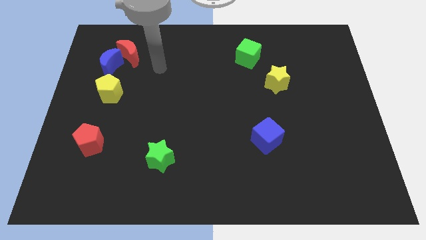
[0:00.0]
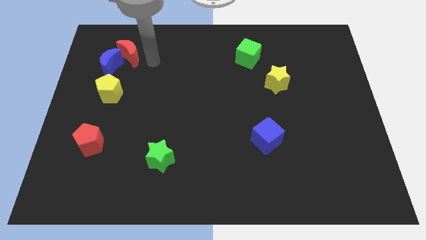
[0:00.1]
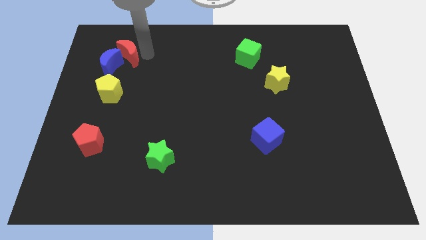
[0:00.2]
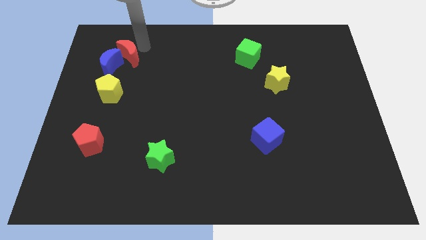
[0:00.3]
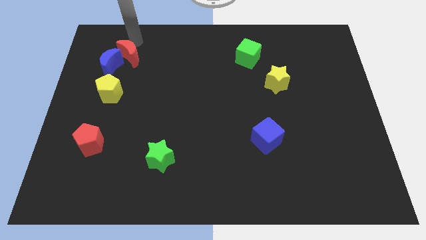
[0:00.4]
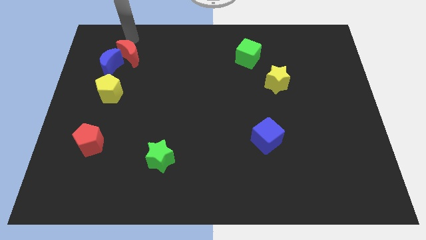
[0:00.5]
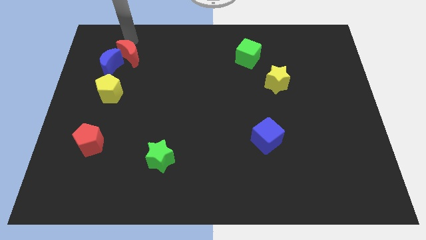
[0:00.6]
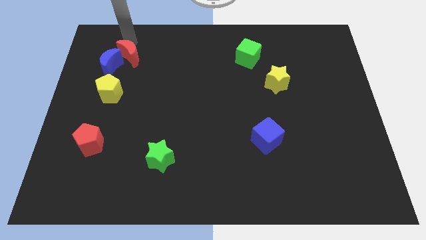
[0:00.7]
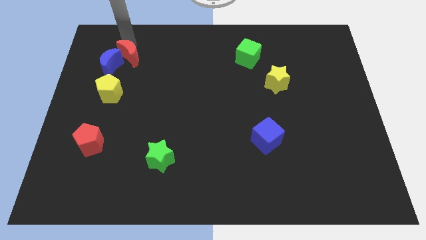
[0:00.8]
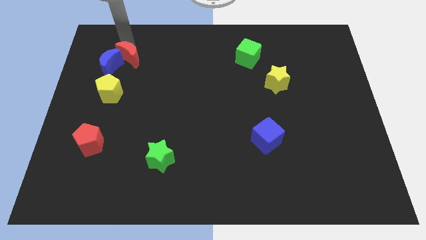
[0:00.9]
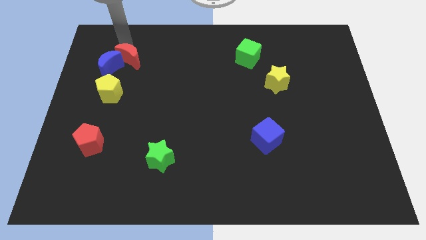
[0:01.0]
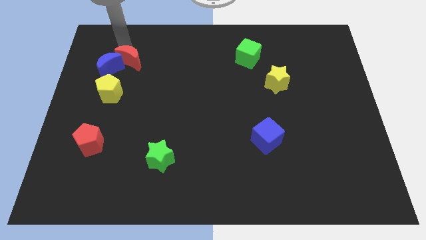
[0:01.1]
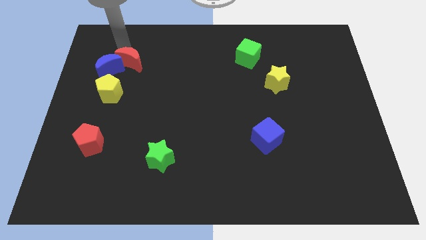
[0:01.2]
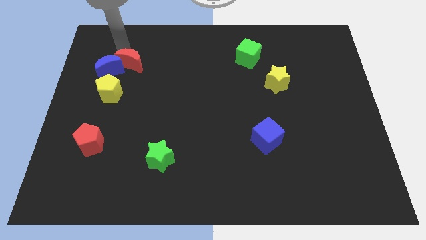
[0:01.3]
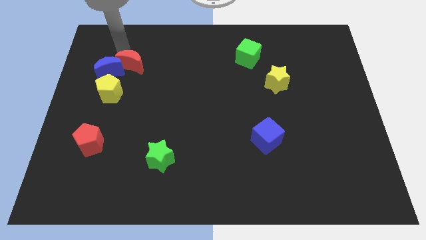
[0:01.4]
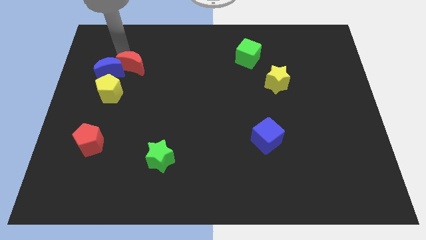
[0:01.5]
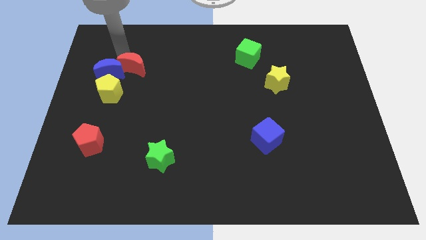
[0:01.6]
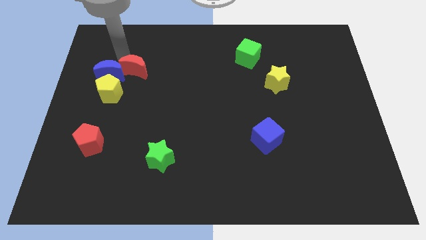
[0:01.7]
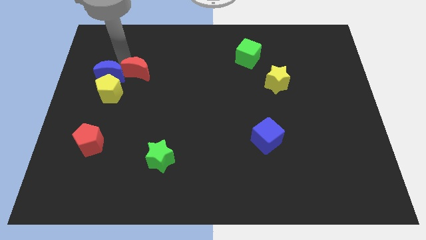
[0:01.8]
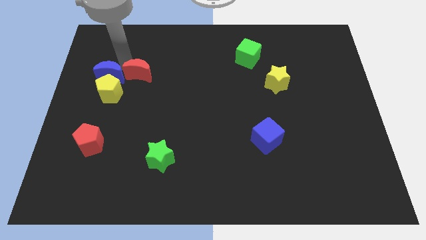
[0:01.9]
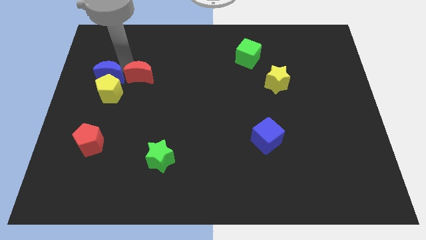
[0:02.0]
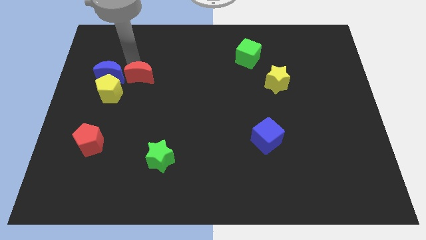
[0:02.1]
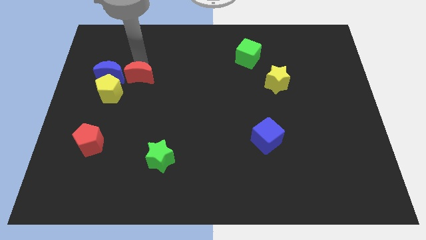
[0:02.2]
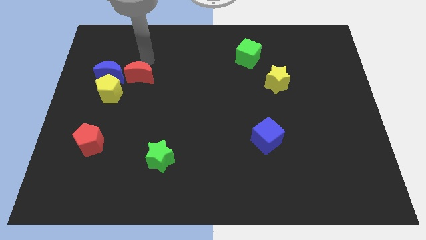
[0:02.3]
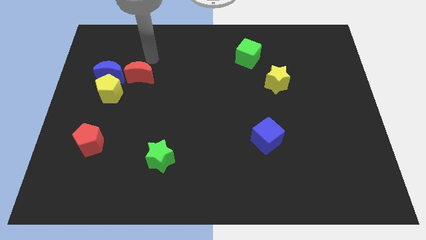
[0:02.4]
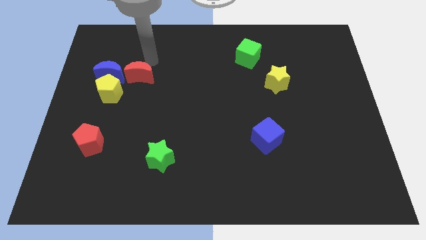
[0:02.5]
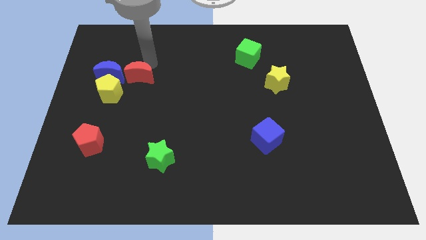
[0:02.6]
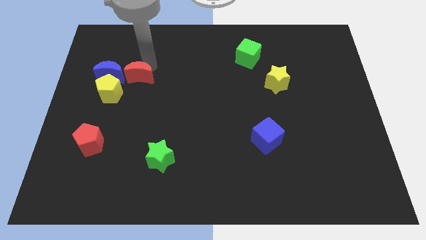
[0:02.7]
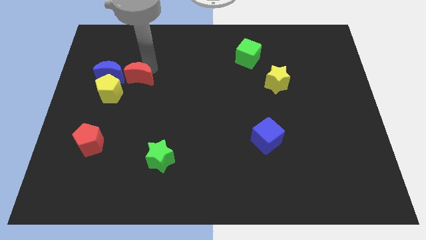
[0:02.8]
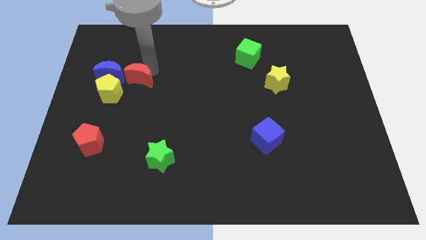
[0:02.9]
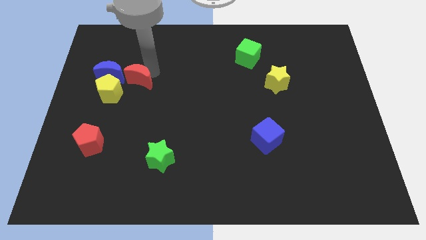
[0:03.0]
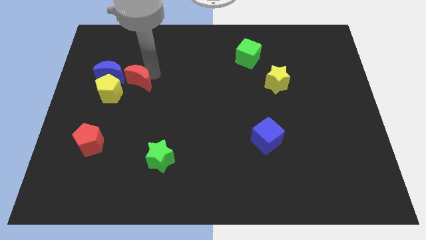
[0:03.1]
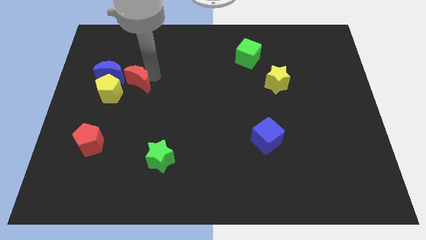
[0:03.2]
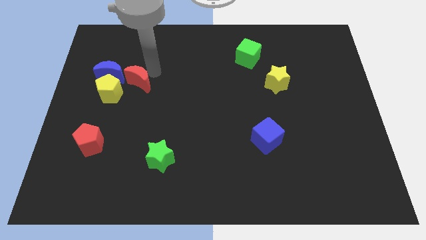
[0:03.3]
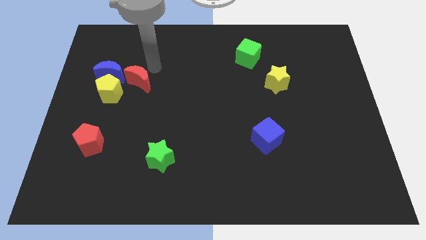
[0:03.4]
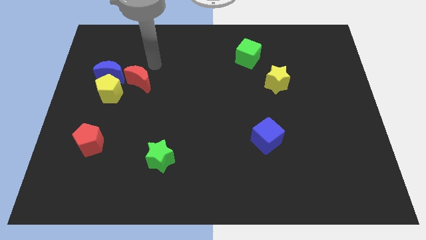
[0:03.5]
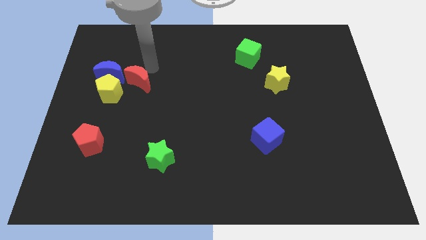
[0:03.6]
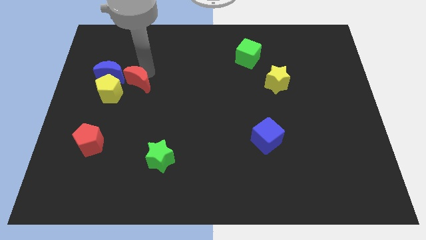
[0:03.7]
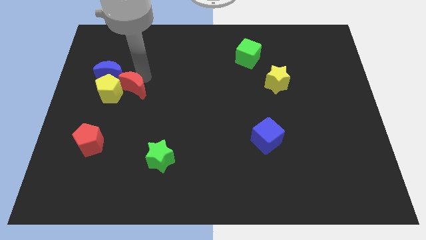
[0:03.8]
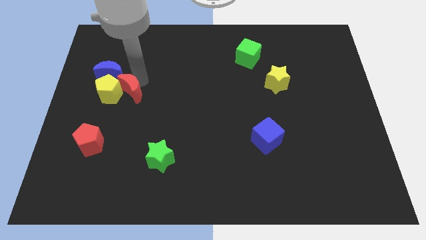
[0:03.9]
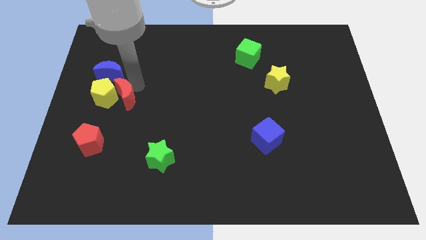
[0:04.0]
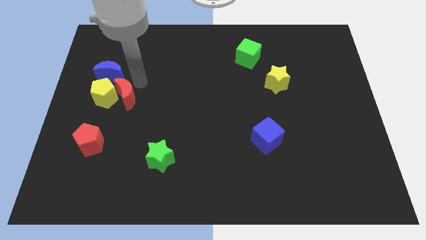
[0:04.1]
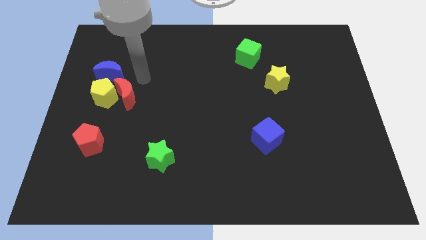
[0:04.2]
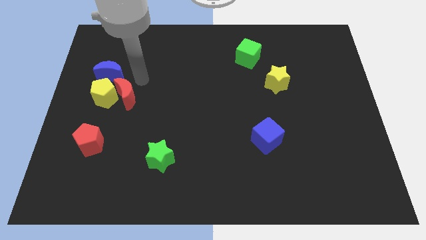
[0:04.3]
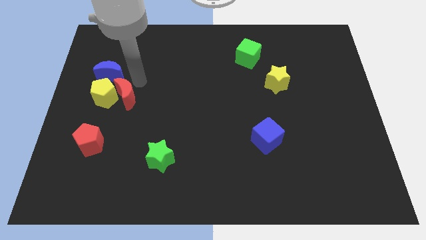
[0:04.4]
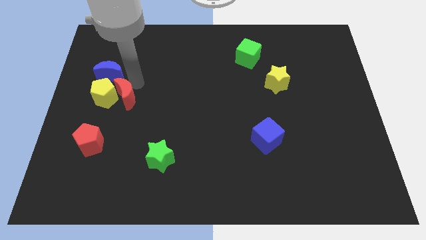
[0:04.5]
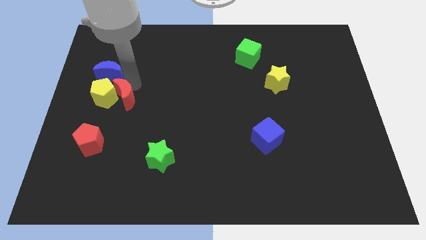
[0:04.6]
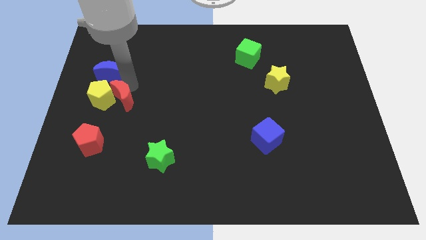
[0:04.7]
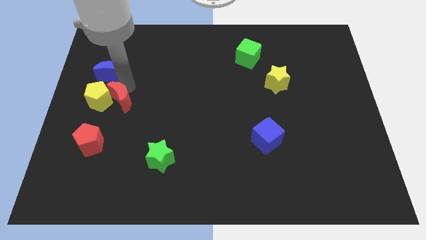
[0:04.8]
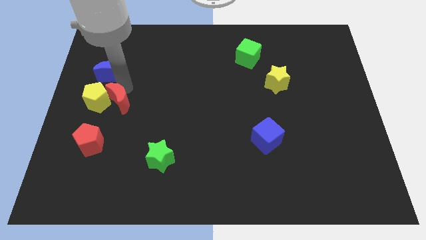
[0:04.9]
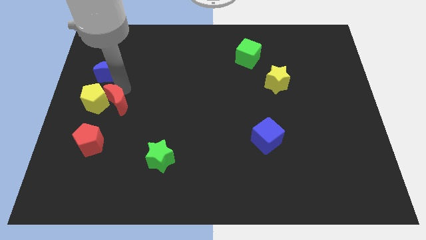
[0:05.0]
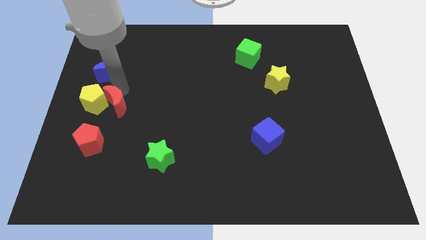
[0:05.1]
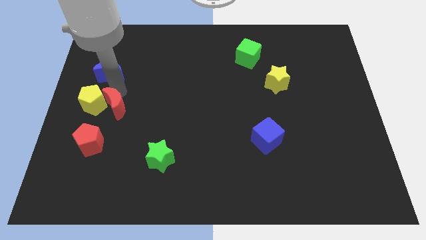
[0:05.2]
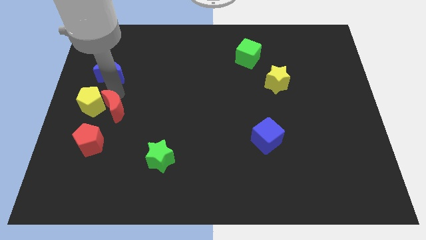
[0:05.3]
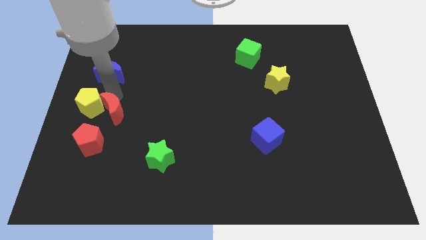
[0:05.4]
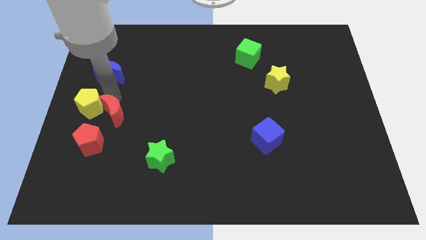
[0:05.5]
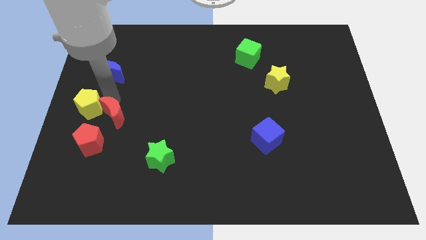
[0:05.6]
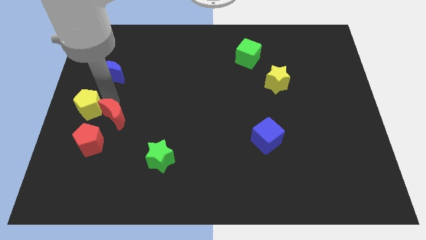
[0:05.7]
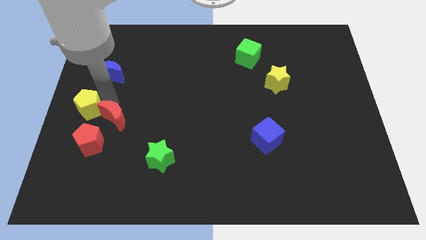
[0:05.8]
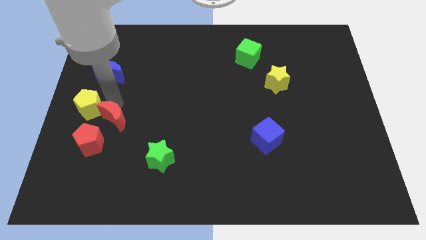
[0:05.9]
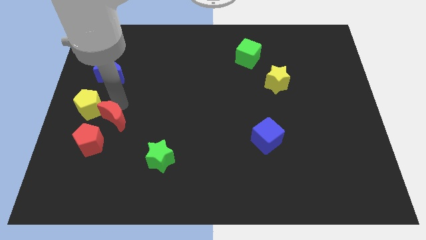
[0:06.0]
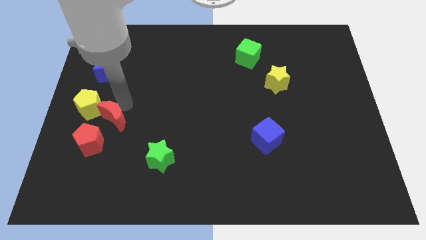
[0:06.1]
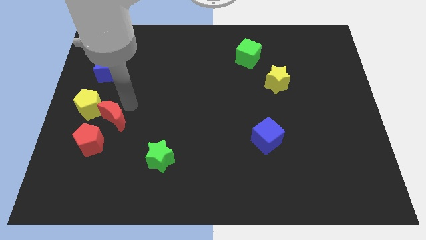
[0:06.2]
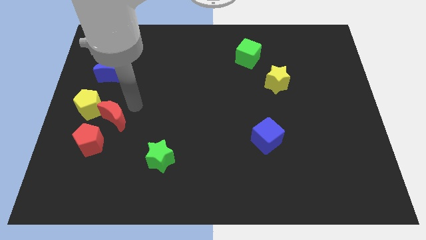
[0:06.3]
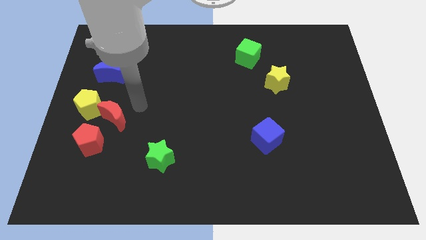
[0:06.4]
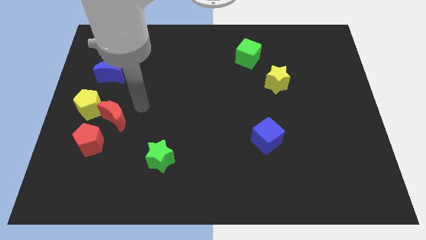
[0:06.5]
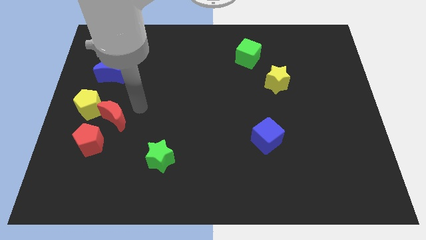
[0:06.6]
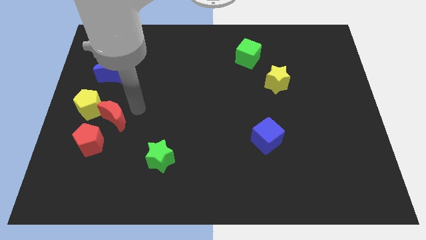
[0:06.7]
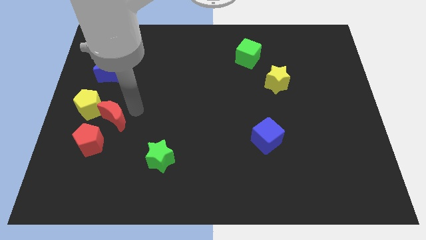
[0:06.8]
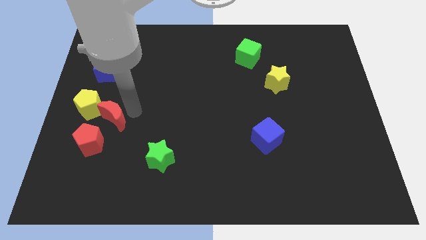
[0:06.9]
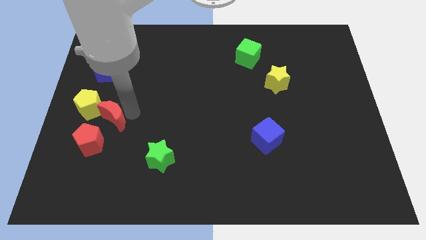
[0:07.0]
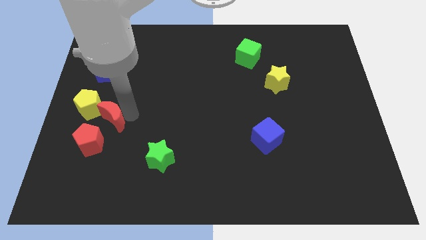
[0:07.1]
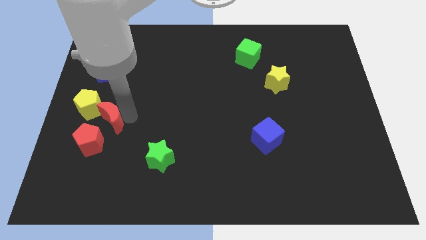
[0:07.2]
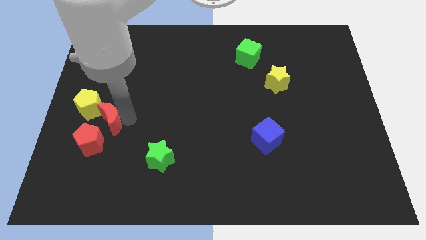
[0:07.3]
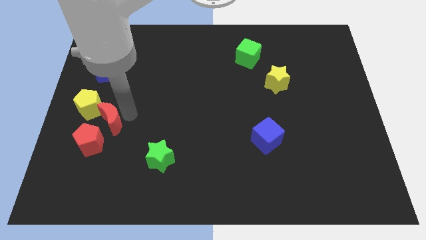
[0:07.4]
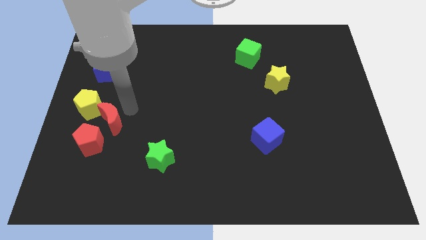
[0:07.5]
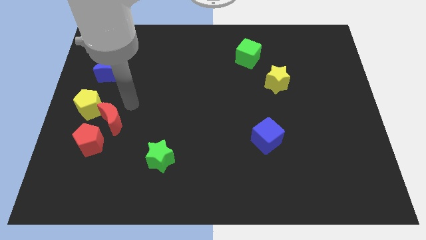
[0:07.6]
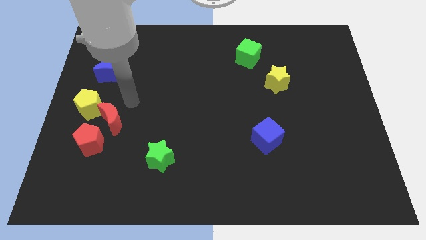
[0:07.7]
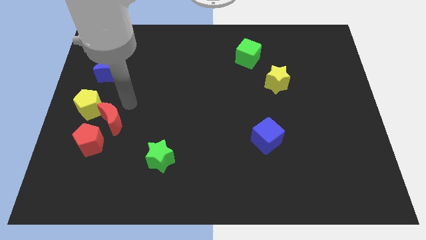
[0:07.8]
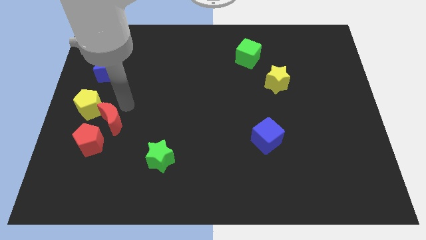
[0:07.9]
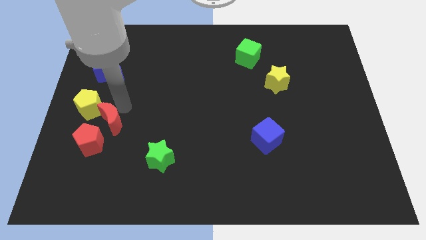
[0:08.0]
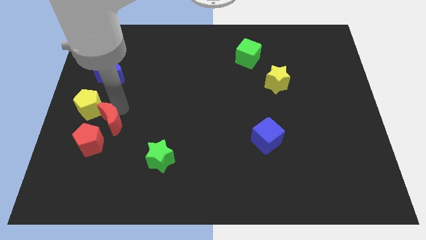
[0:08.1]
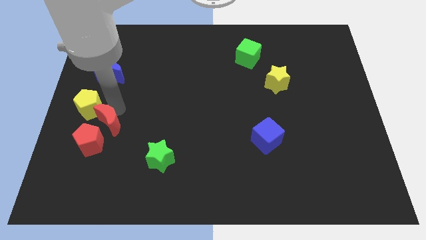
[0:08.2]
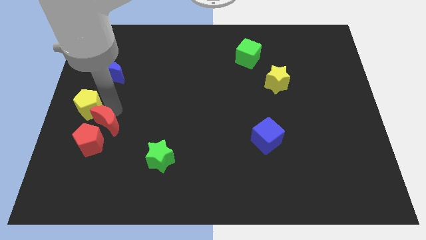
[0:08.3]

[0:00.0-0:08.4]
slide the red moon next to the red pentagon
